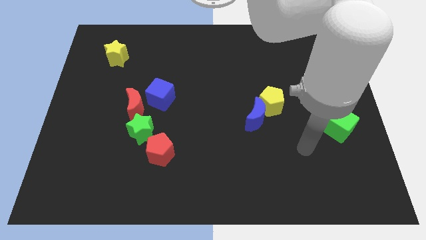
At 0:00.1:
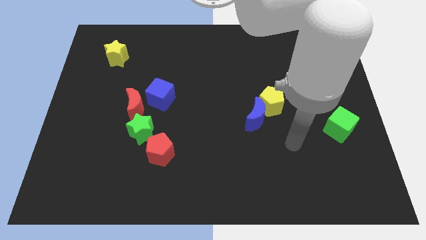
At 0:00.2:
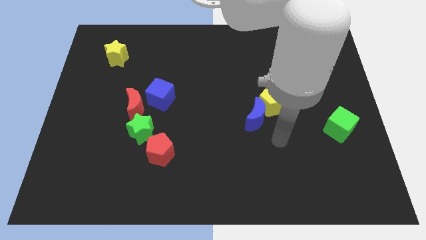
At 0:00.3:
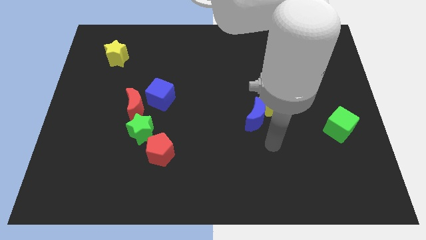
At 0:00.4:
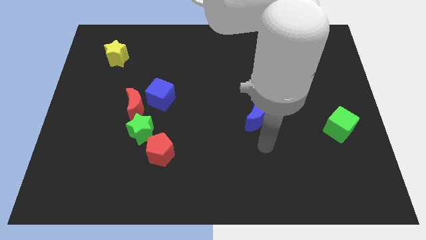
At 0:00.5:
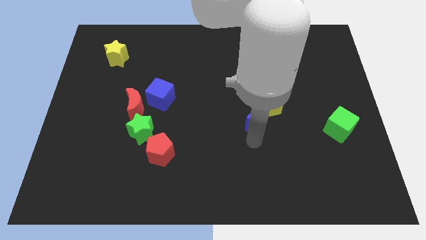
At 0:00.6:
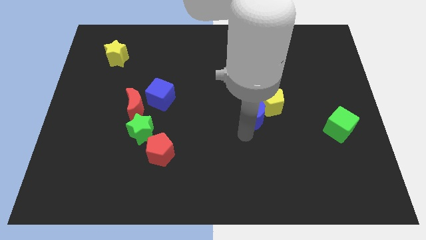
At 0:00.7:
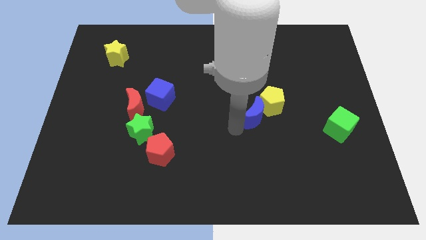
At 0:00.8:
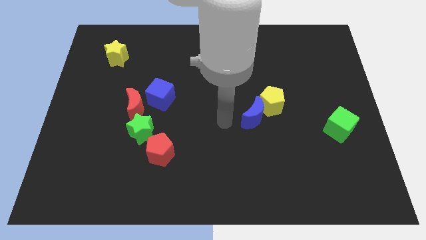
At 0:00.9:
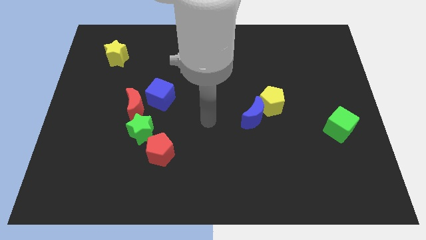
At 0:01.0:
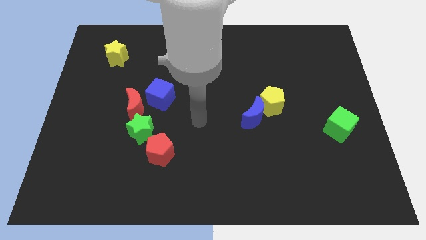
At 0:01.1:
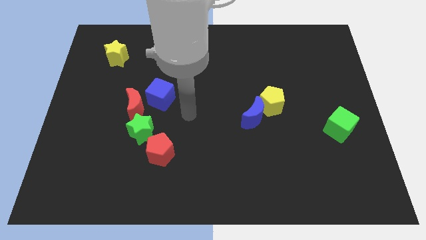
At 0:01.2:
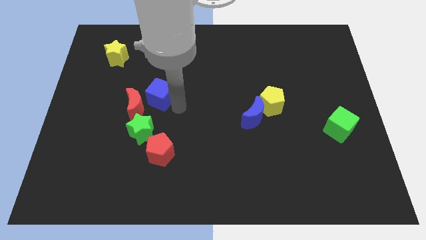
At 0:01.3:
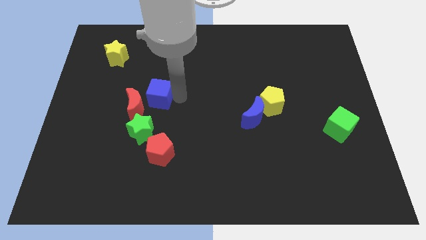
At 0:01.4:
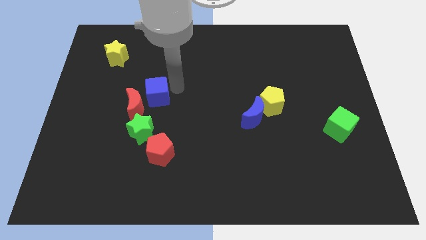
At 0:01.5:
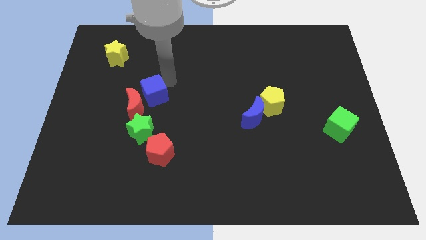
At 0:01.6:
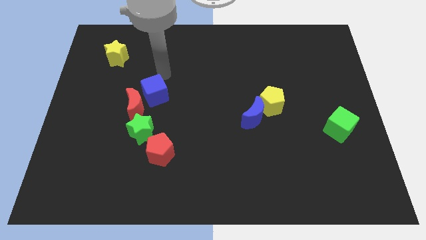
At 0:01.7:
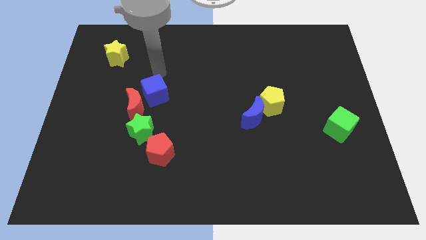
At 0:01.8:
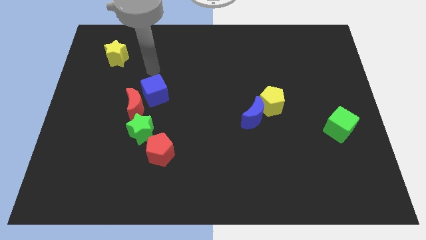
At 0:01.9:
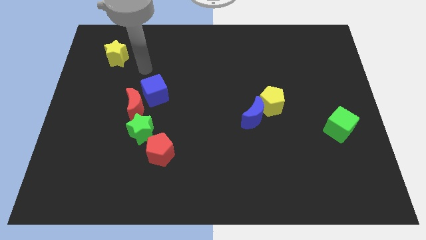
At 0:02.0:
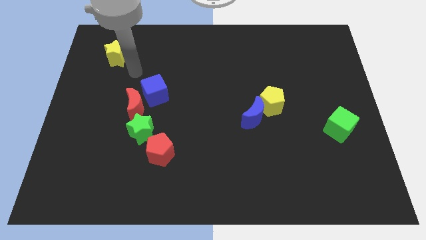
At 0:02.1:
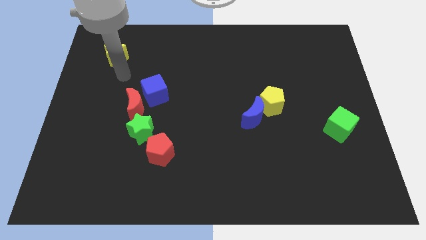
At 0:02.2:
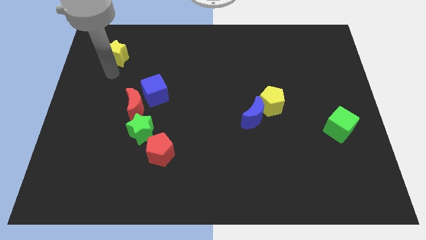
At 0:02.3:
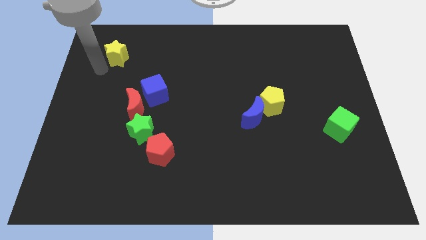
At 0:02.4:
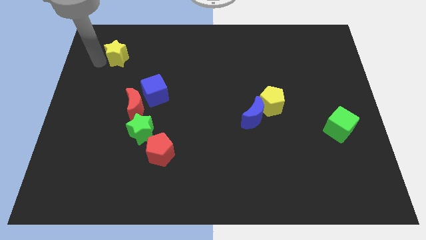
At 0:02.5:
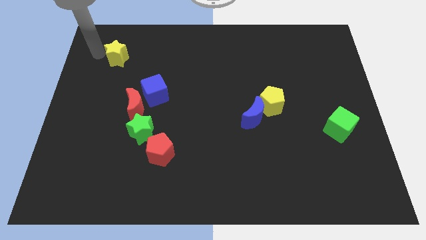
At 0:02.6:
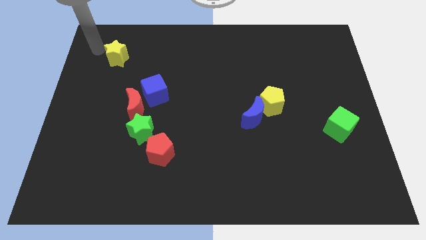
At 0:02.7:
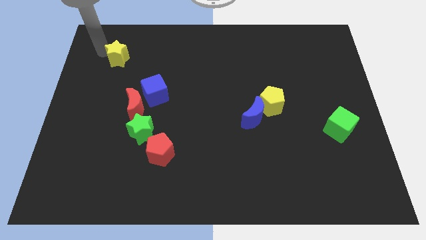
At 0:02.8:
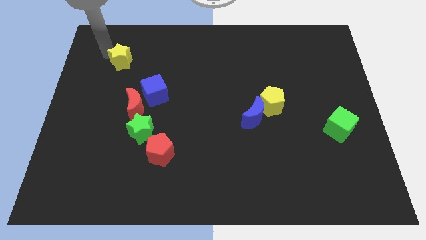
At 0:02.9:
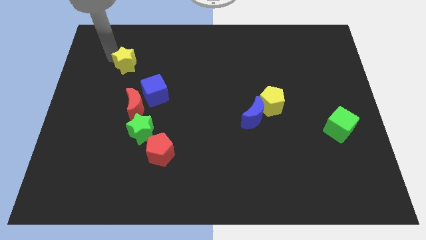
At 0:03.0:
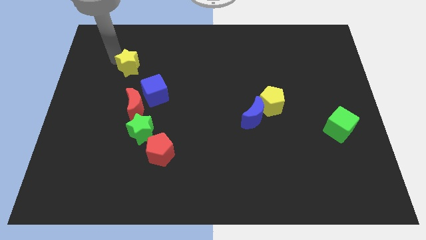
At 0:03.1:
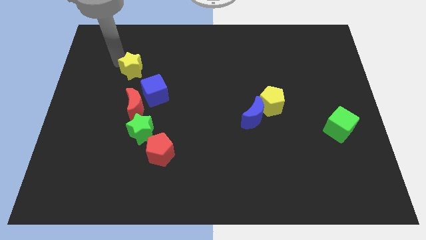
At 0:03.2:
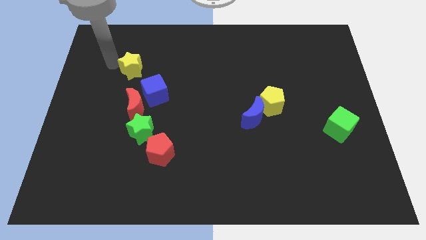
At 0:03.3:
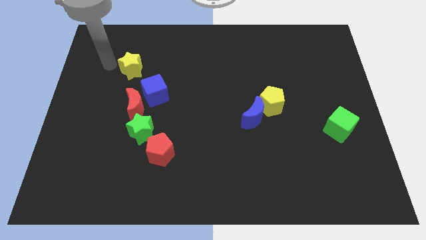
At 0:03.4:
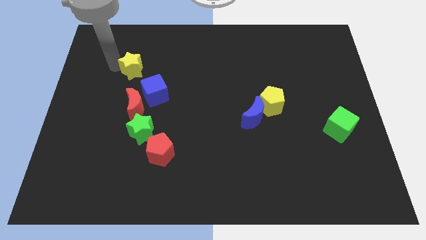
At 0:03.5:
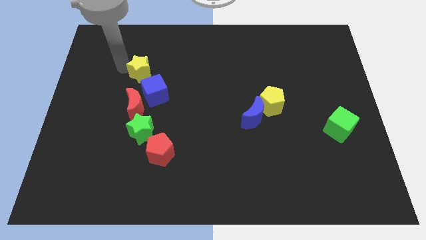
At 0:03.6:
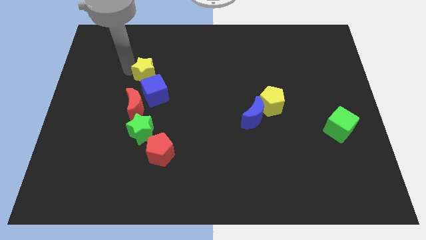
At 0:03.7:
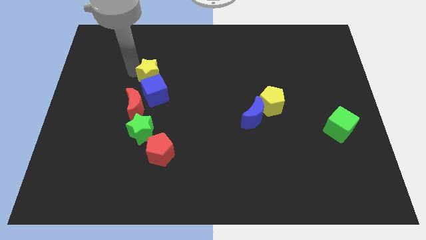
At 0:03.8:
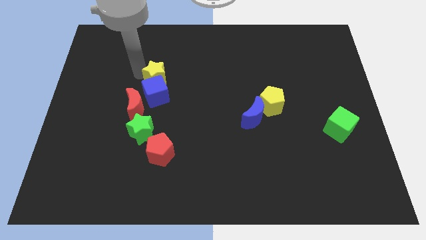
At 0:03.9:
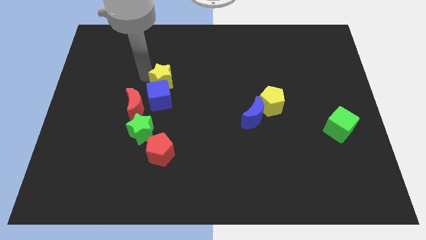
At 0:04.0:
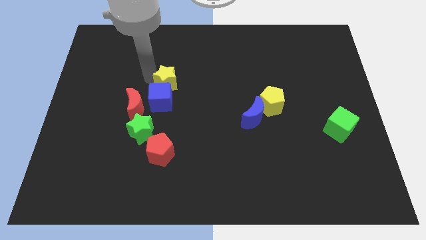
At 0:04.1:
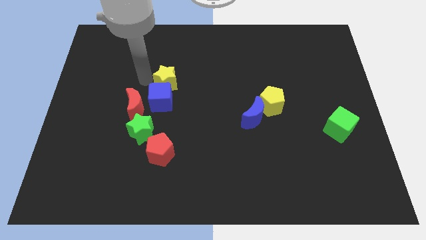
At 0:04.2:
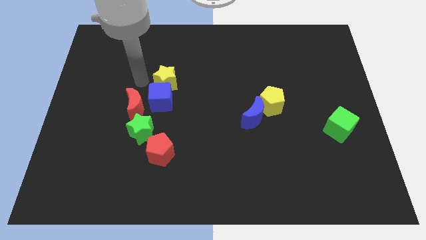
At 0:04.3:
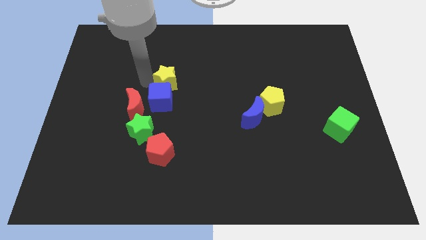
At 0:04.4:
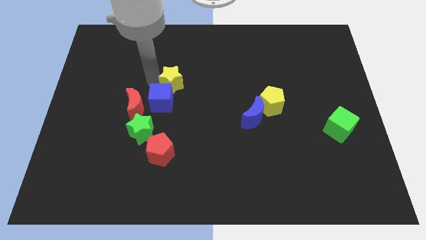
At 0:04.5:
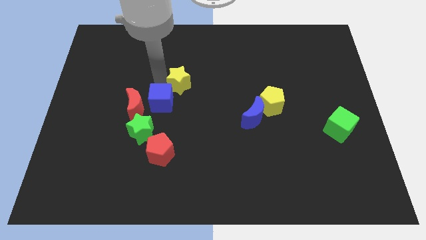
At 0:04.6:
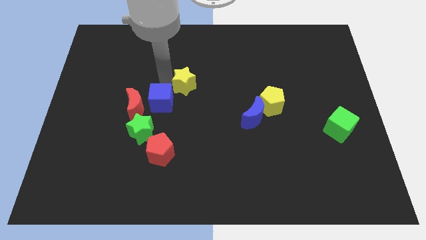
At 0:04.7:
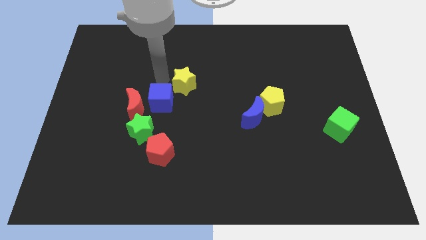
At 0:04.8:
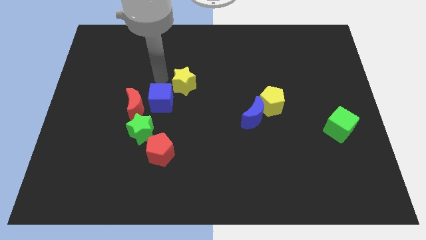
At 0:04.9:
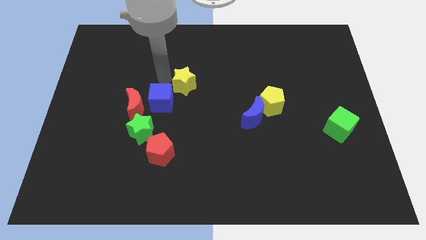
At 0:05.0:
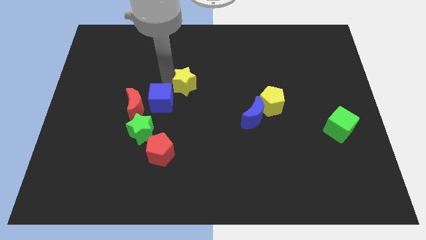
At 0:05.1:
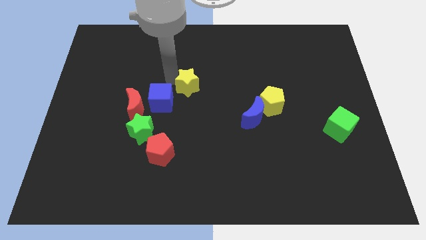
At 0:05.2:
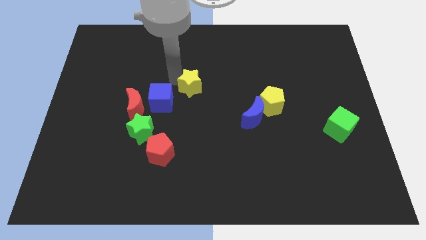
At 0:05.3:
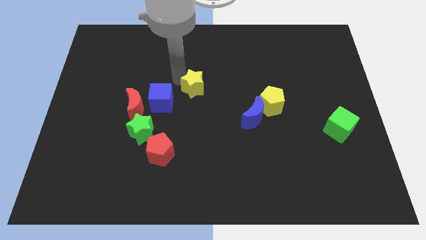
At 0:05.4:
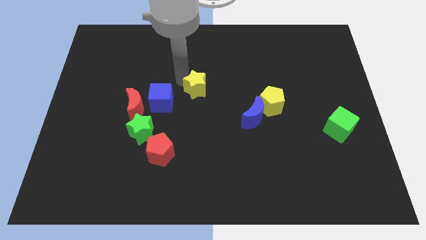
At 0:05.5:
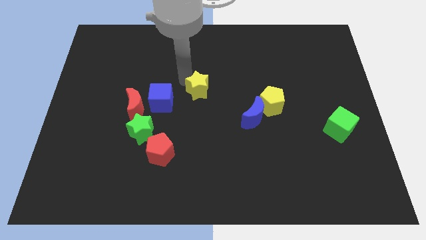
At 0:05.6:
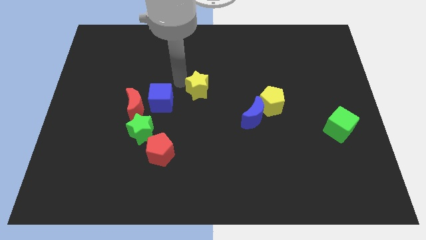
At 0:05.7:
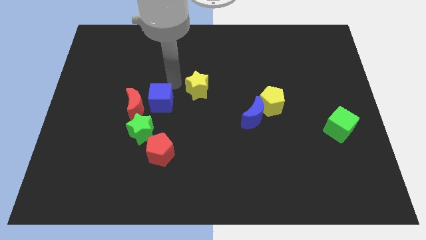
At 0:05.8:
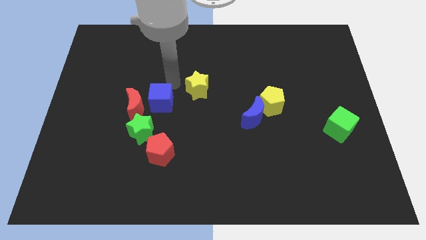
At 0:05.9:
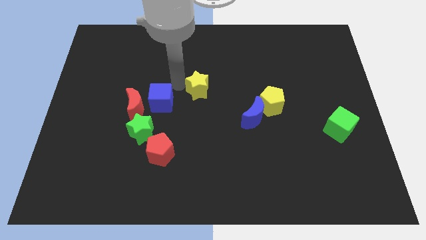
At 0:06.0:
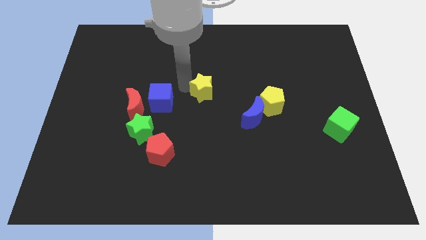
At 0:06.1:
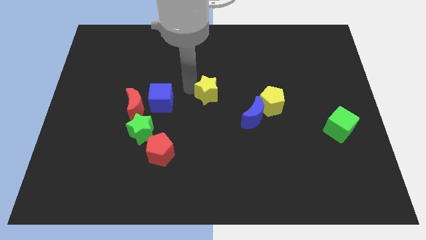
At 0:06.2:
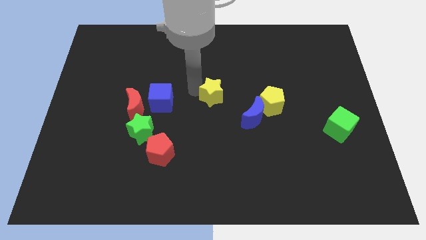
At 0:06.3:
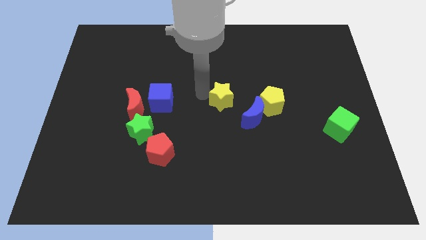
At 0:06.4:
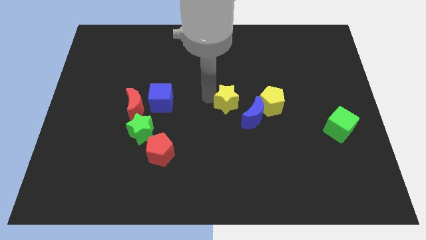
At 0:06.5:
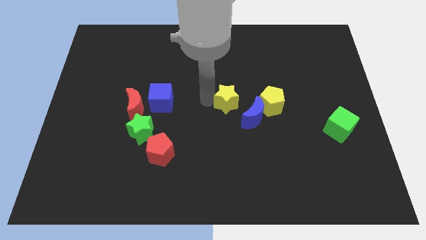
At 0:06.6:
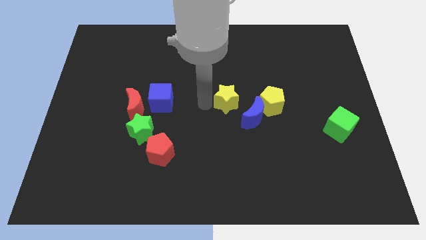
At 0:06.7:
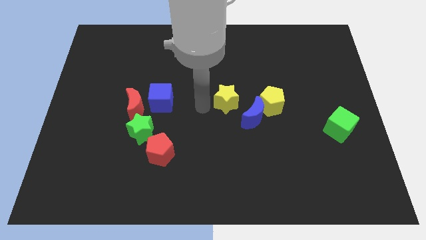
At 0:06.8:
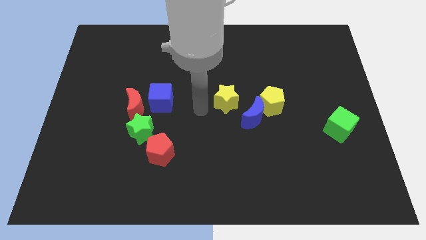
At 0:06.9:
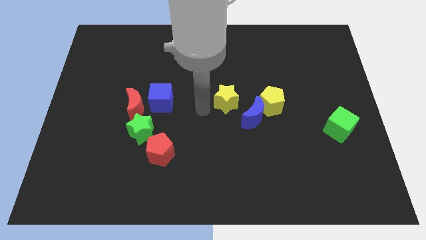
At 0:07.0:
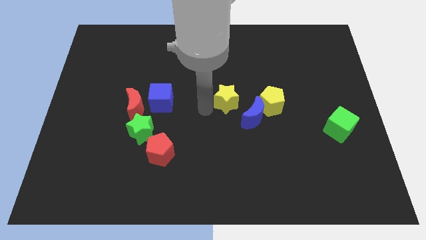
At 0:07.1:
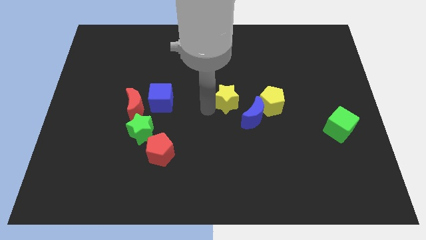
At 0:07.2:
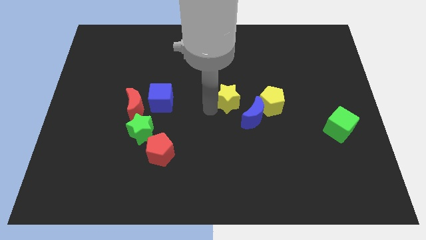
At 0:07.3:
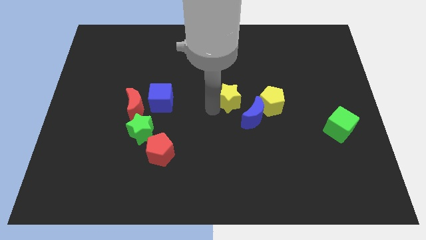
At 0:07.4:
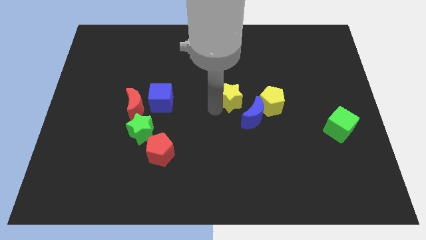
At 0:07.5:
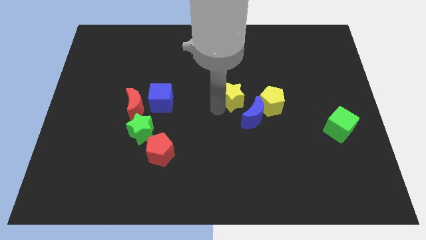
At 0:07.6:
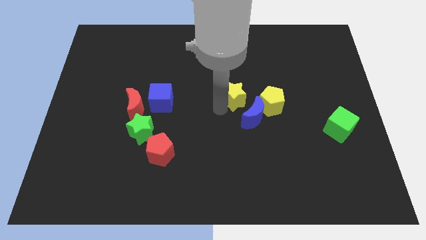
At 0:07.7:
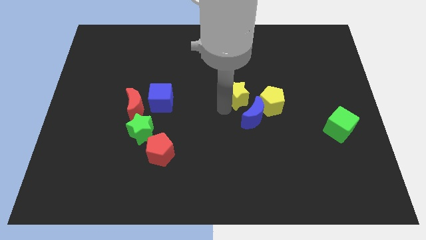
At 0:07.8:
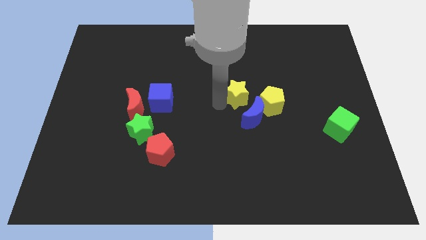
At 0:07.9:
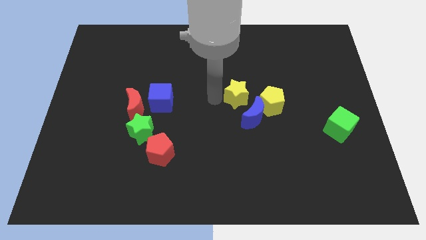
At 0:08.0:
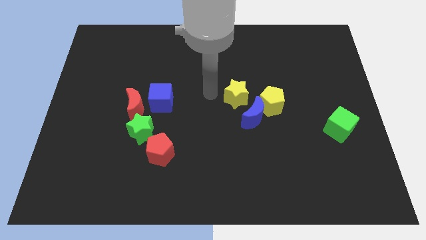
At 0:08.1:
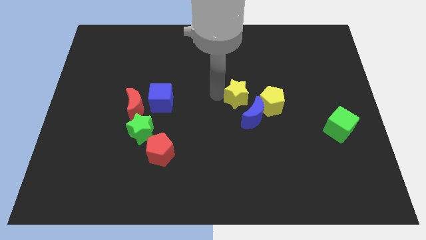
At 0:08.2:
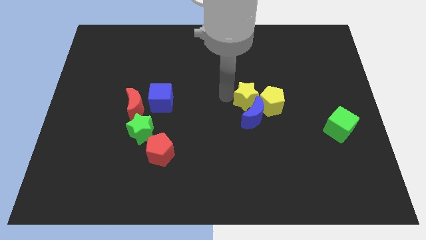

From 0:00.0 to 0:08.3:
move the yellow star close to the yellow pentagon
